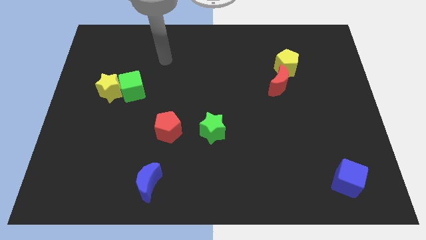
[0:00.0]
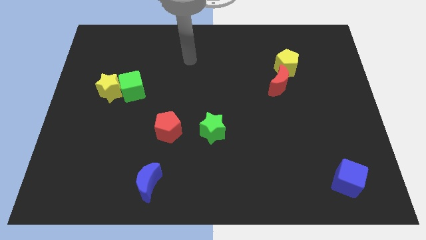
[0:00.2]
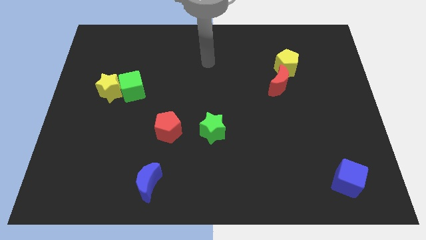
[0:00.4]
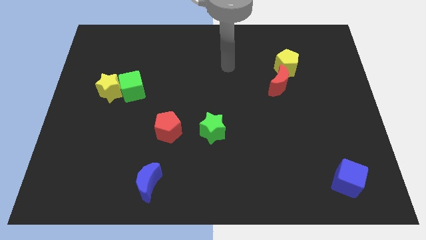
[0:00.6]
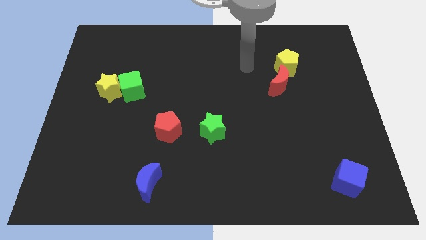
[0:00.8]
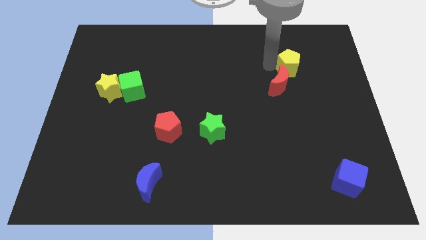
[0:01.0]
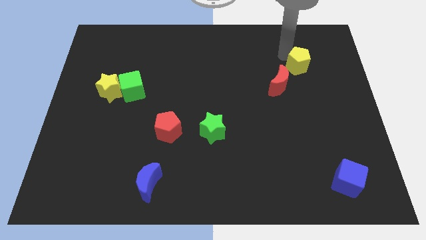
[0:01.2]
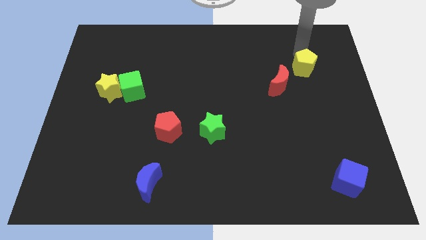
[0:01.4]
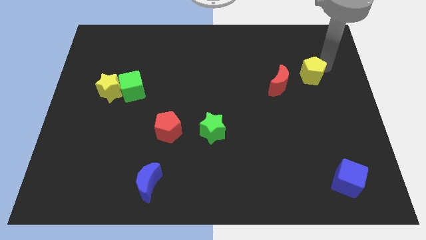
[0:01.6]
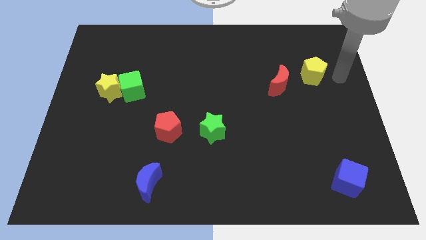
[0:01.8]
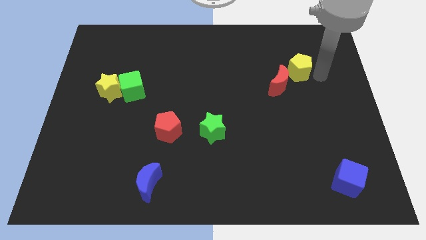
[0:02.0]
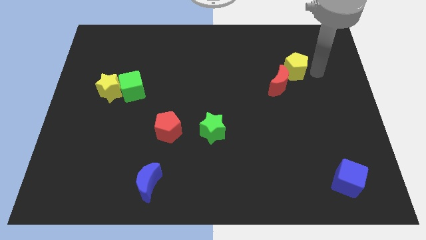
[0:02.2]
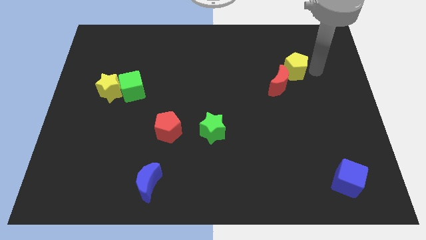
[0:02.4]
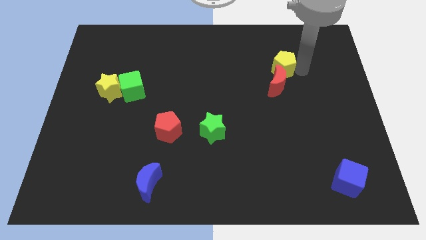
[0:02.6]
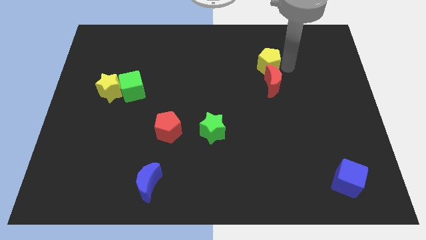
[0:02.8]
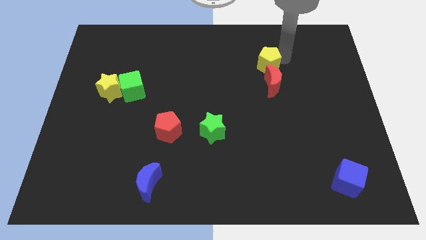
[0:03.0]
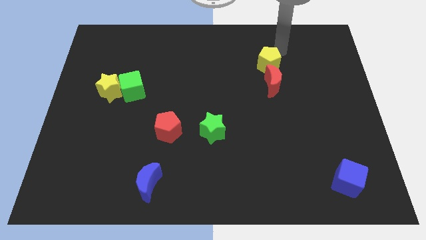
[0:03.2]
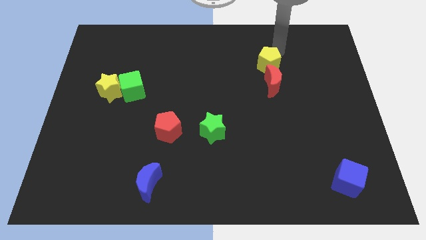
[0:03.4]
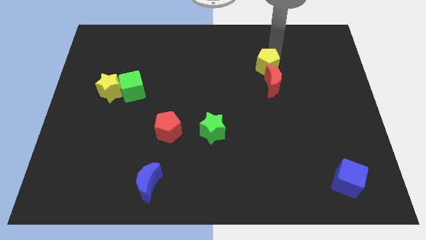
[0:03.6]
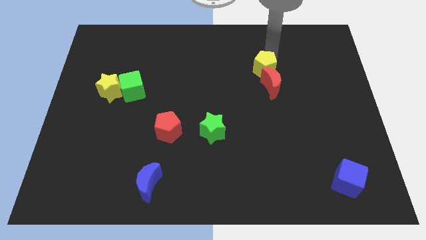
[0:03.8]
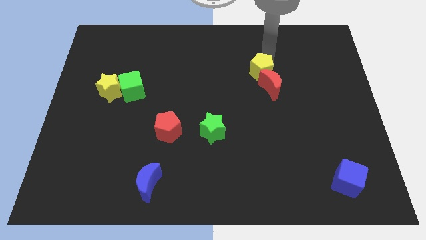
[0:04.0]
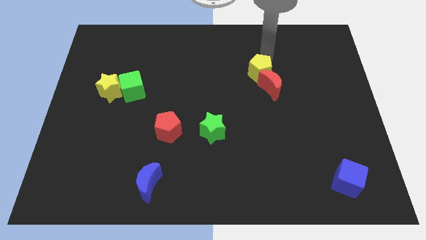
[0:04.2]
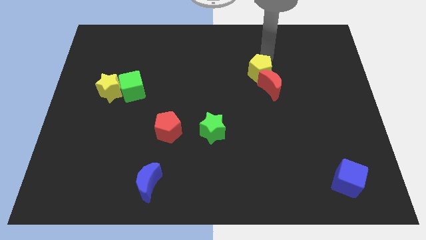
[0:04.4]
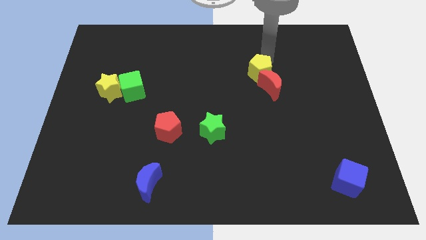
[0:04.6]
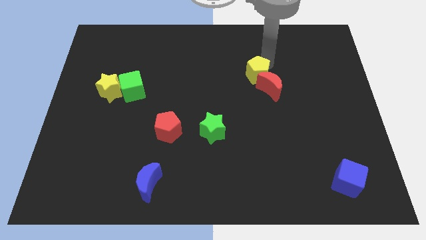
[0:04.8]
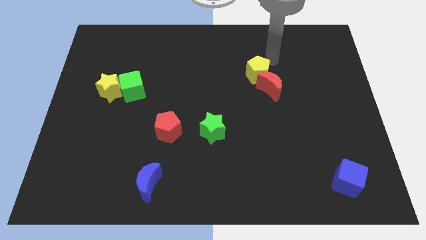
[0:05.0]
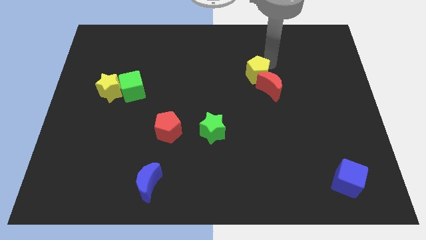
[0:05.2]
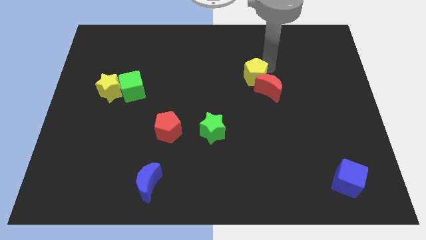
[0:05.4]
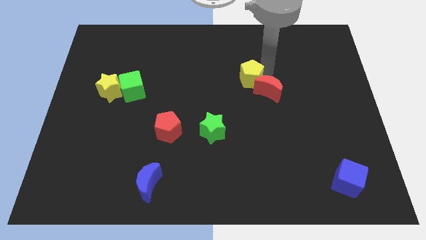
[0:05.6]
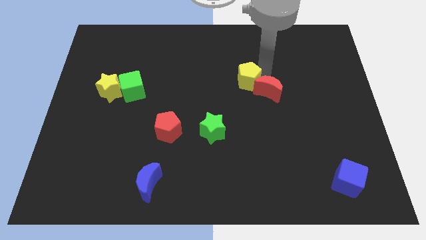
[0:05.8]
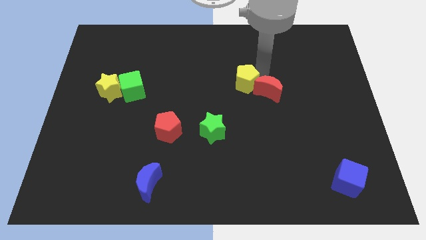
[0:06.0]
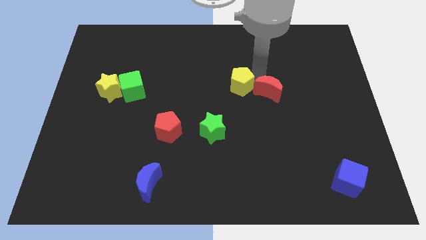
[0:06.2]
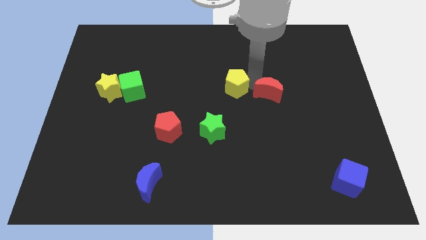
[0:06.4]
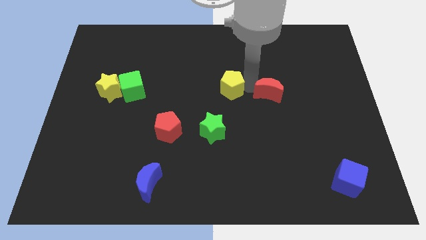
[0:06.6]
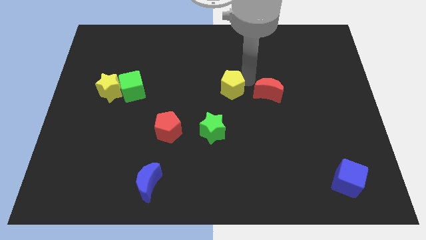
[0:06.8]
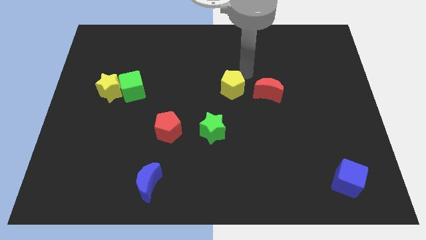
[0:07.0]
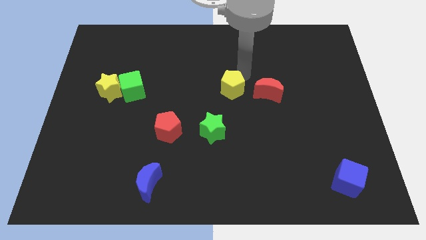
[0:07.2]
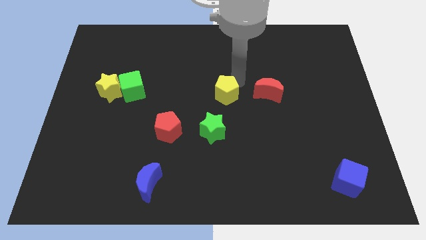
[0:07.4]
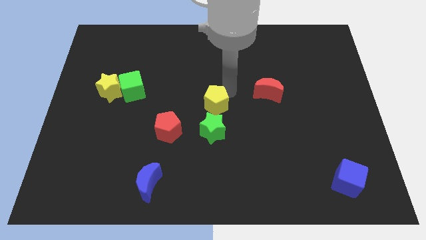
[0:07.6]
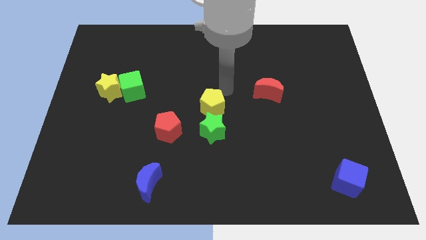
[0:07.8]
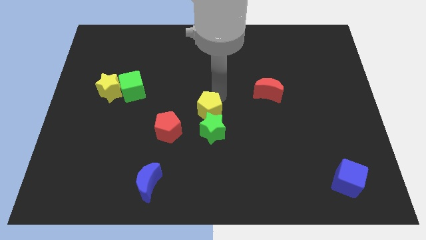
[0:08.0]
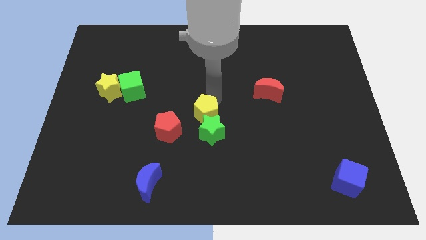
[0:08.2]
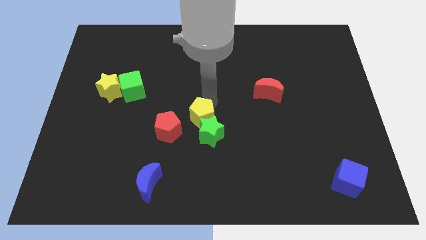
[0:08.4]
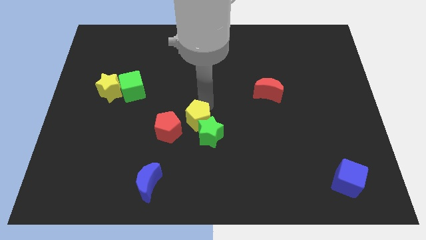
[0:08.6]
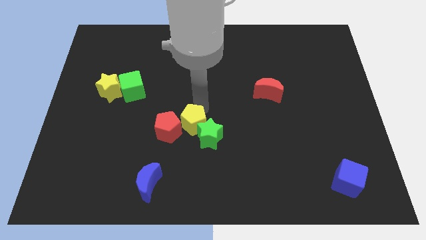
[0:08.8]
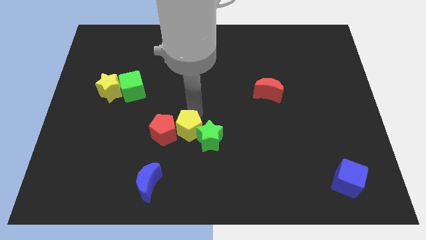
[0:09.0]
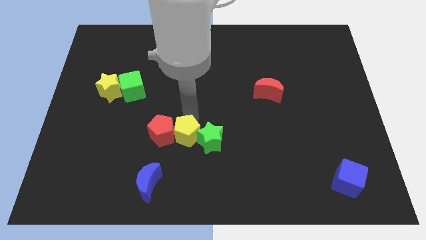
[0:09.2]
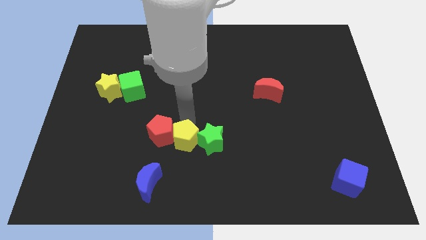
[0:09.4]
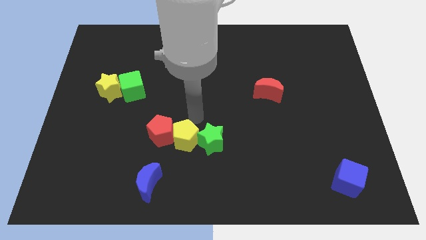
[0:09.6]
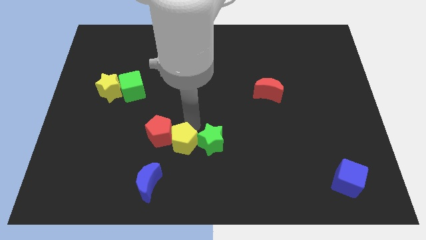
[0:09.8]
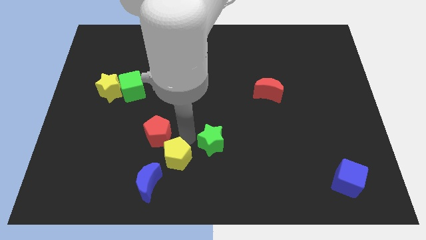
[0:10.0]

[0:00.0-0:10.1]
move the yellow pentagon to the bottom of the red pentagon

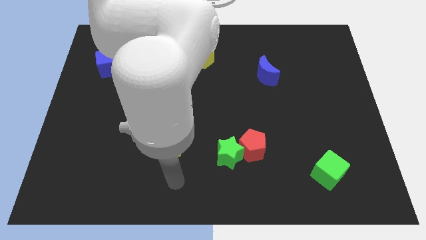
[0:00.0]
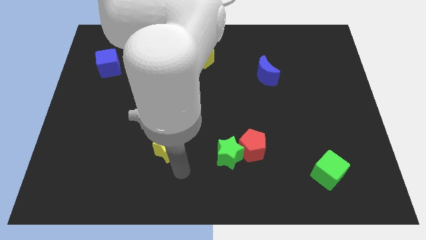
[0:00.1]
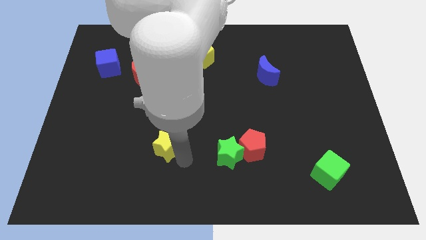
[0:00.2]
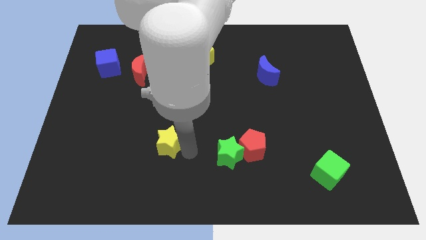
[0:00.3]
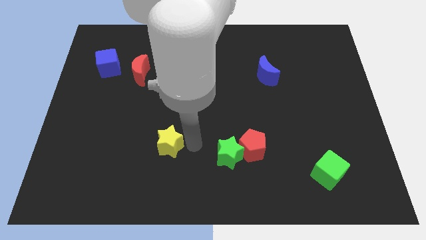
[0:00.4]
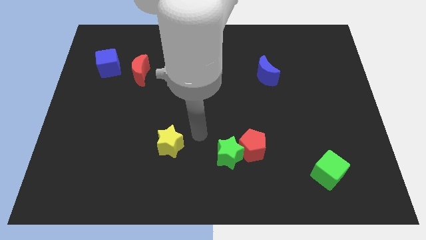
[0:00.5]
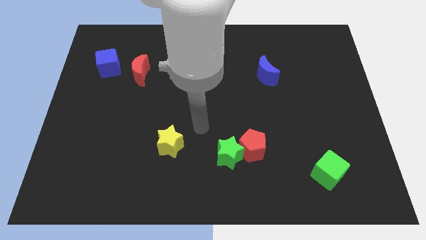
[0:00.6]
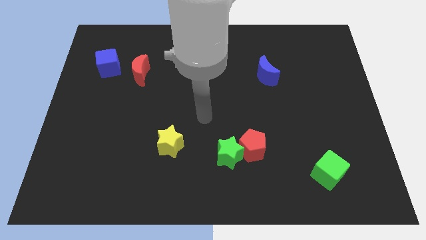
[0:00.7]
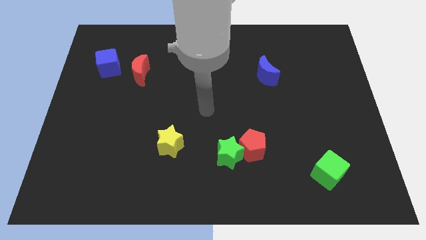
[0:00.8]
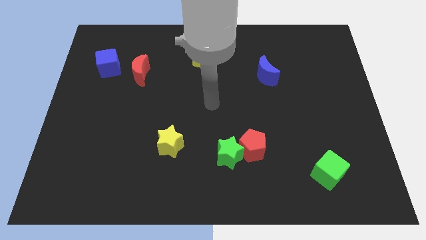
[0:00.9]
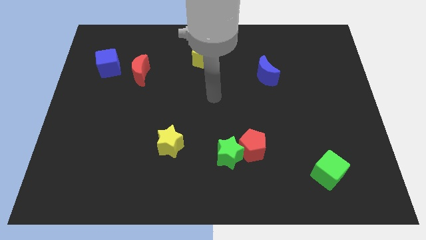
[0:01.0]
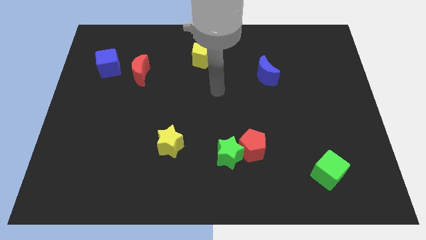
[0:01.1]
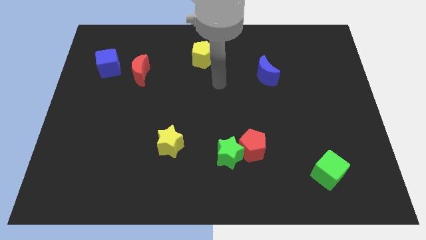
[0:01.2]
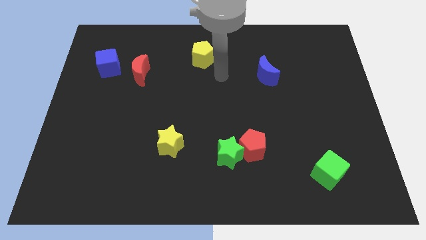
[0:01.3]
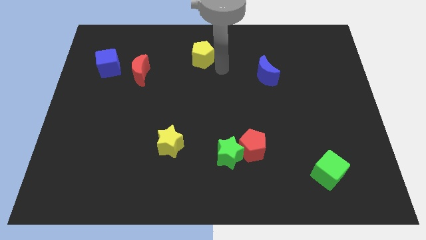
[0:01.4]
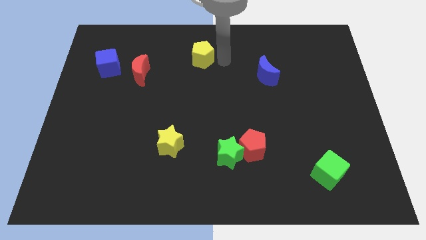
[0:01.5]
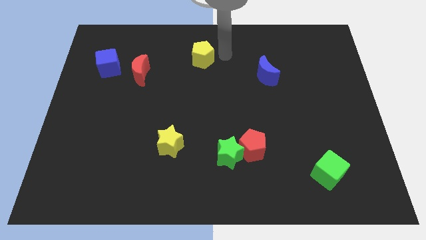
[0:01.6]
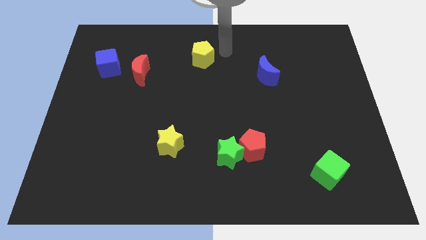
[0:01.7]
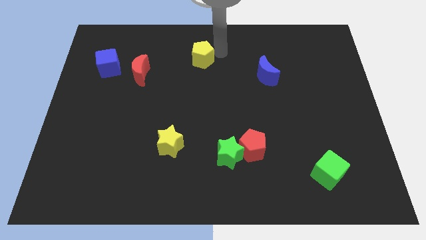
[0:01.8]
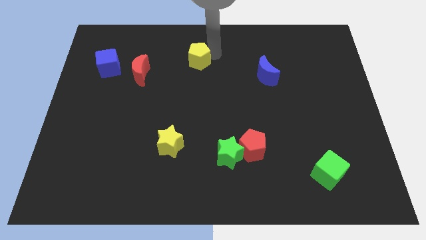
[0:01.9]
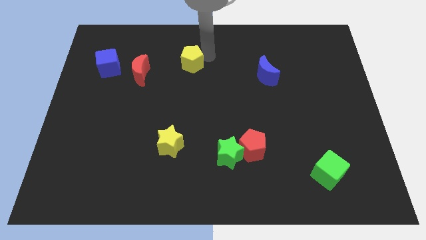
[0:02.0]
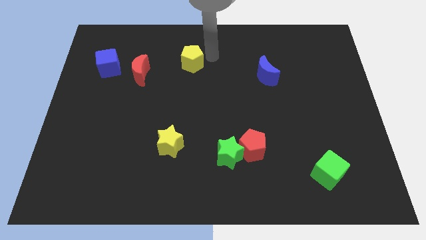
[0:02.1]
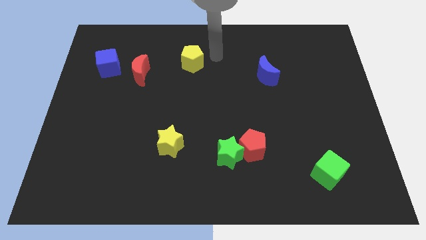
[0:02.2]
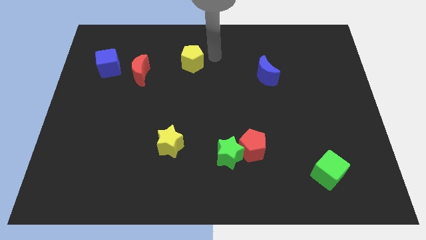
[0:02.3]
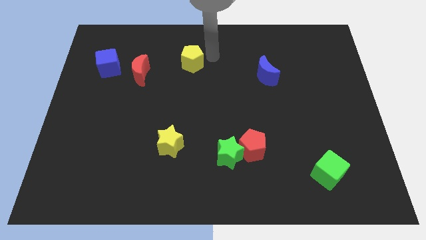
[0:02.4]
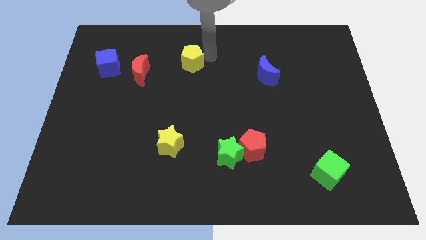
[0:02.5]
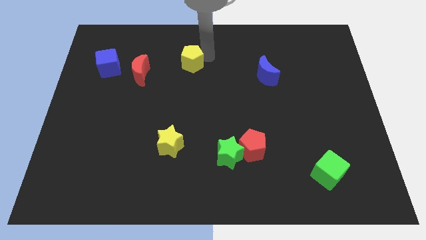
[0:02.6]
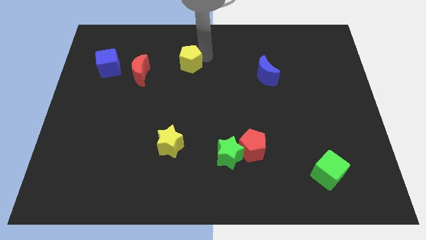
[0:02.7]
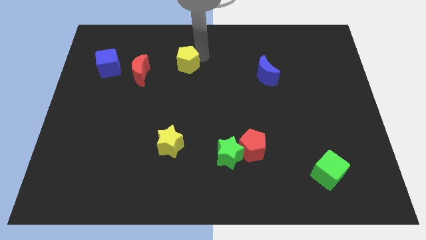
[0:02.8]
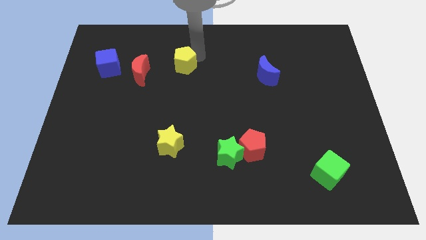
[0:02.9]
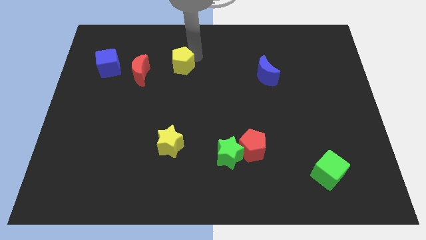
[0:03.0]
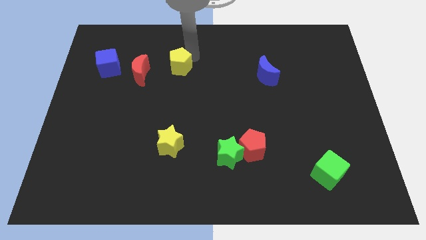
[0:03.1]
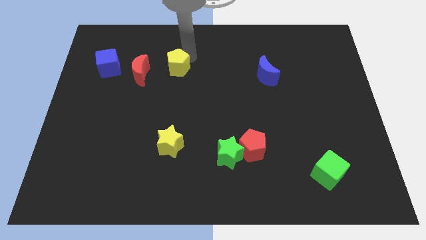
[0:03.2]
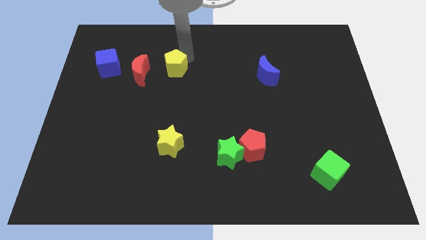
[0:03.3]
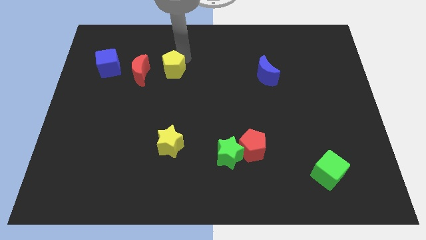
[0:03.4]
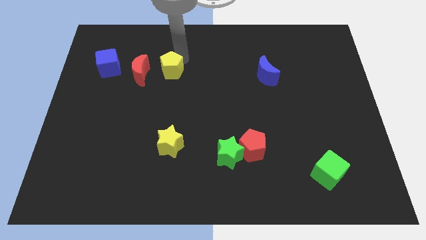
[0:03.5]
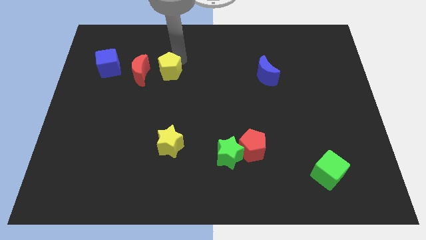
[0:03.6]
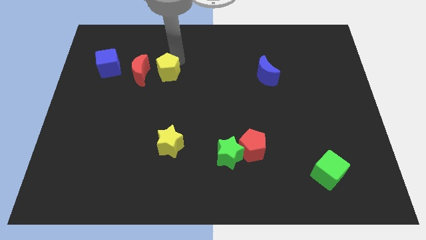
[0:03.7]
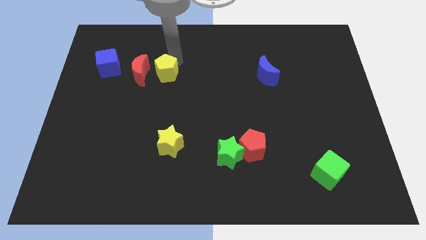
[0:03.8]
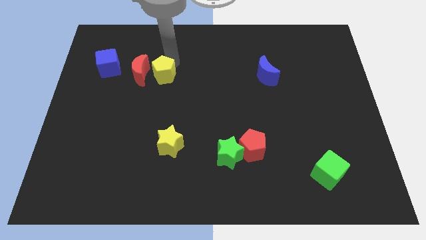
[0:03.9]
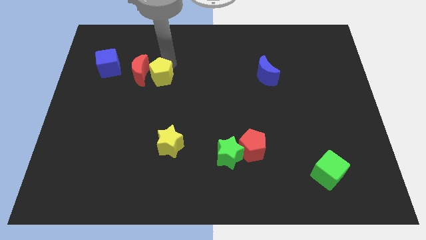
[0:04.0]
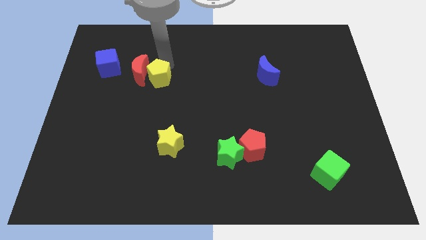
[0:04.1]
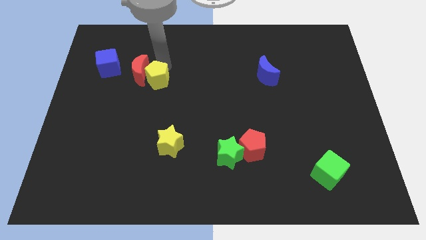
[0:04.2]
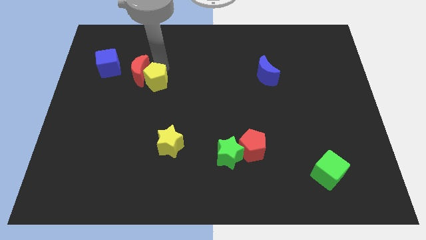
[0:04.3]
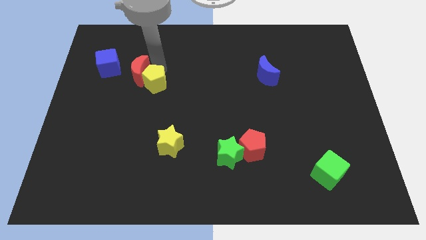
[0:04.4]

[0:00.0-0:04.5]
slide the yellow pentagon to the bottom of the red moon
